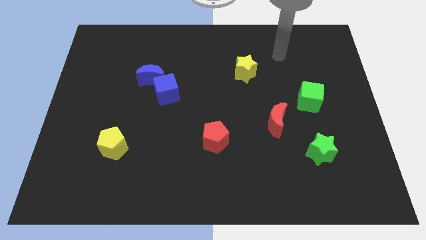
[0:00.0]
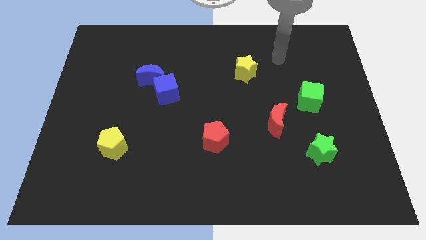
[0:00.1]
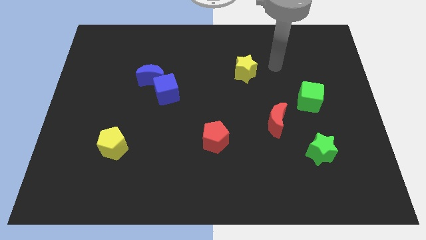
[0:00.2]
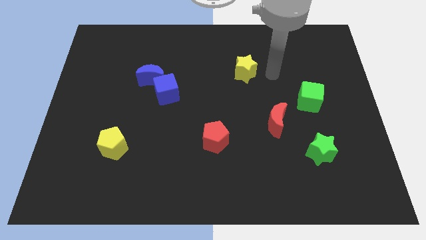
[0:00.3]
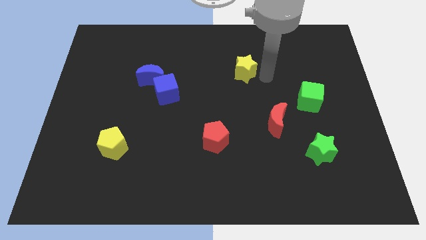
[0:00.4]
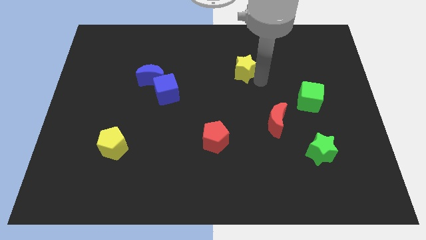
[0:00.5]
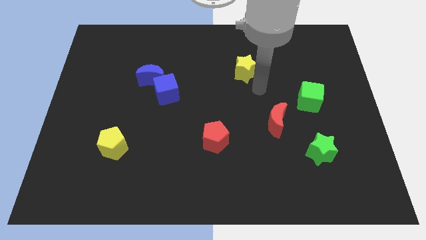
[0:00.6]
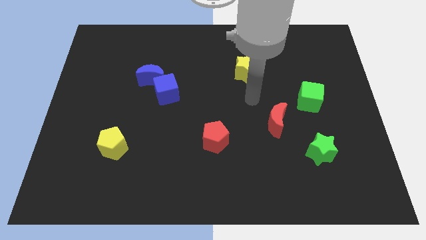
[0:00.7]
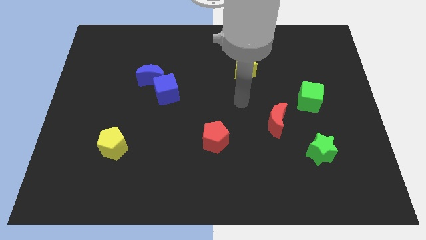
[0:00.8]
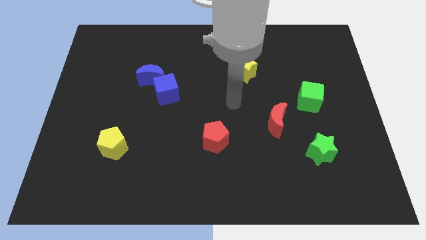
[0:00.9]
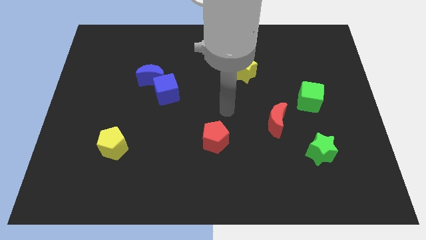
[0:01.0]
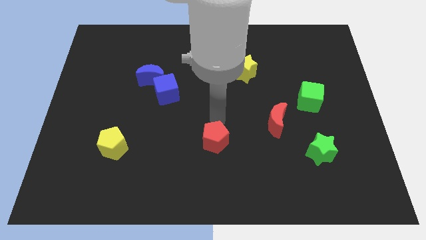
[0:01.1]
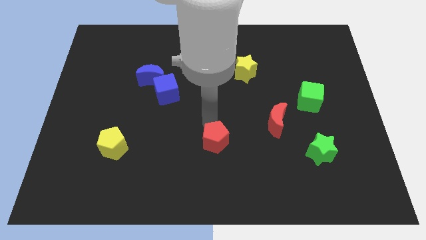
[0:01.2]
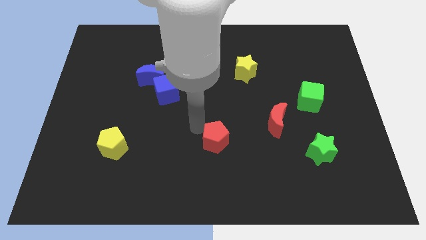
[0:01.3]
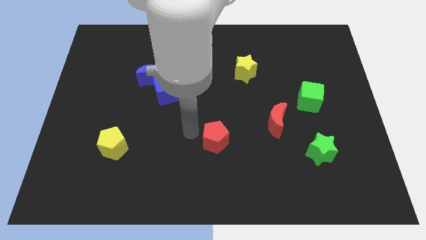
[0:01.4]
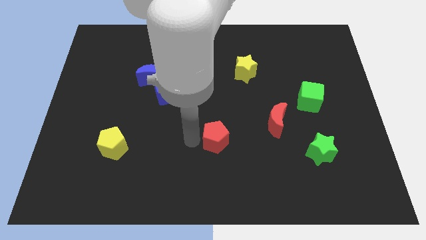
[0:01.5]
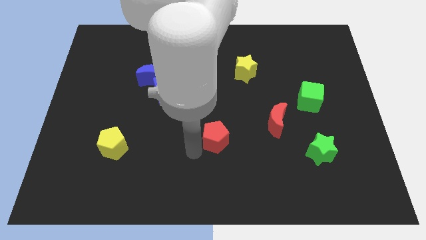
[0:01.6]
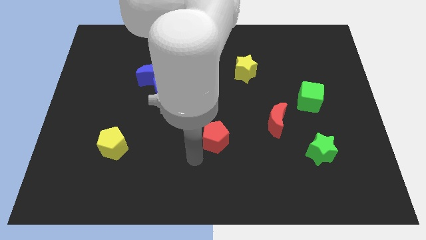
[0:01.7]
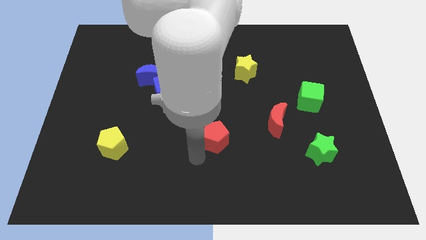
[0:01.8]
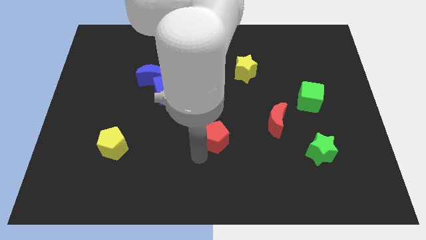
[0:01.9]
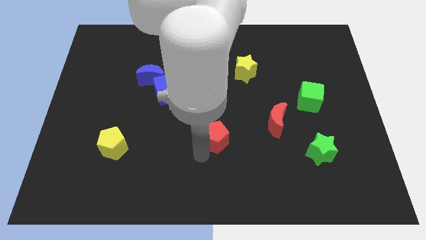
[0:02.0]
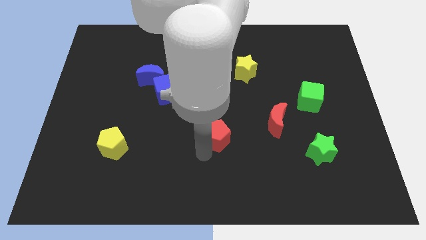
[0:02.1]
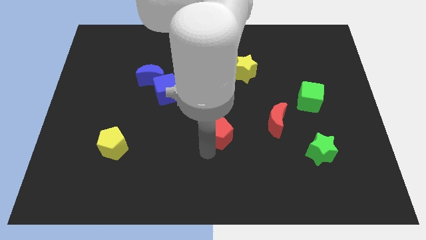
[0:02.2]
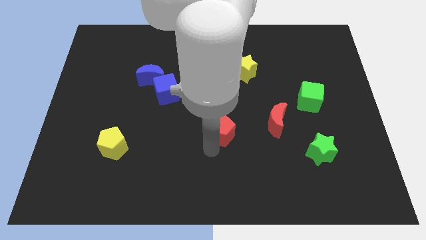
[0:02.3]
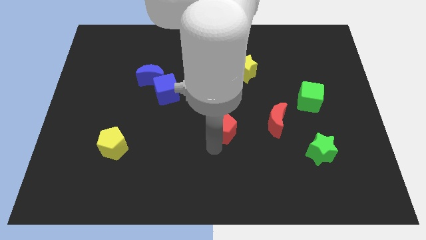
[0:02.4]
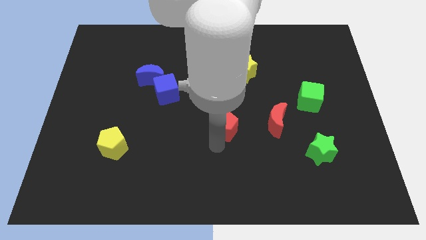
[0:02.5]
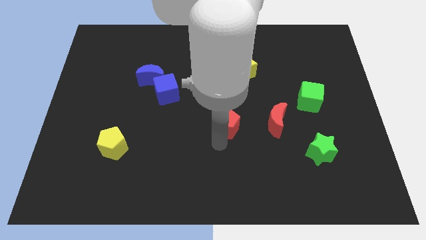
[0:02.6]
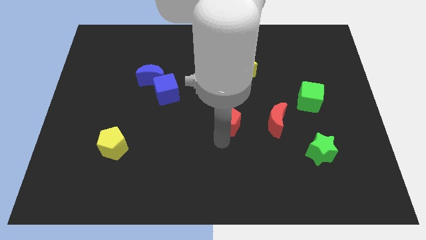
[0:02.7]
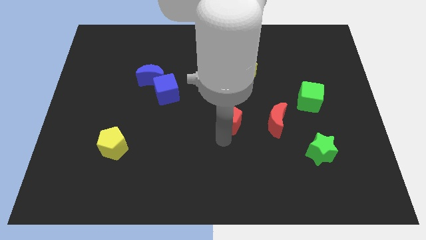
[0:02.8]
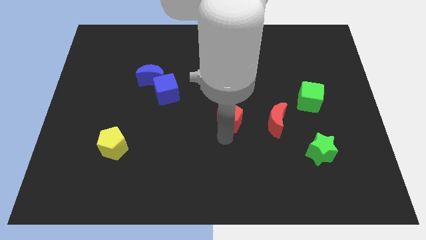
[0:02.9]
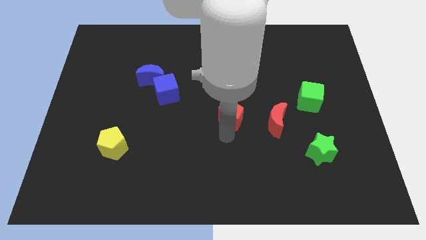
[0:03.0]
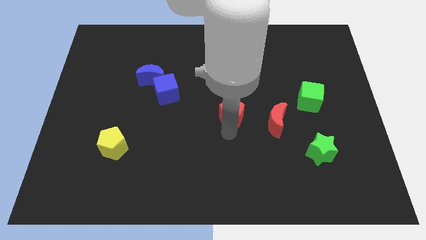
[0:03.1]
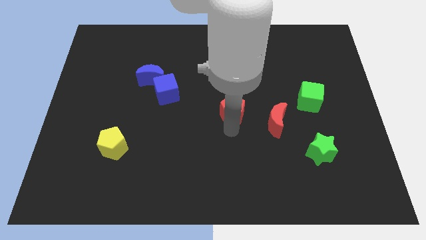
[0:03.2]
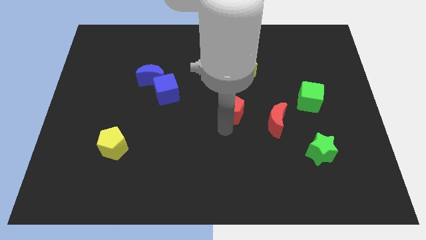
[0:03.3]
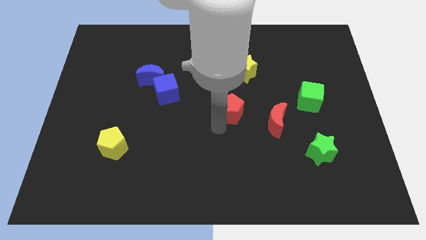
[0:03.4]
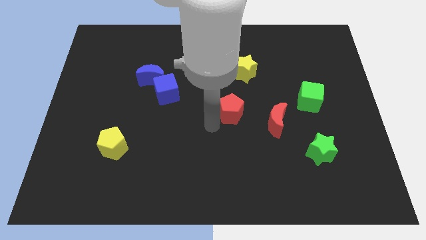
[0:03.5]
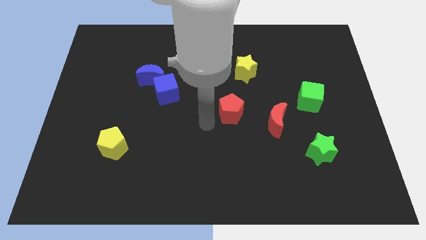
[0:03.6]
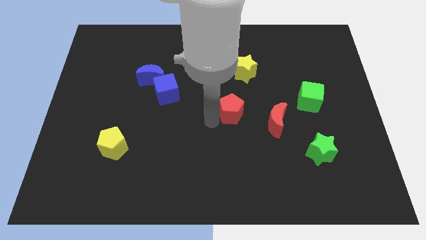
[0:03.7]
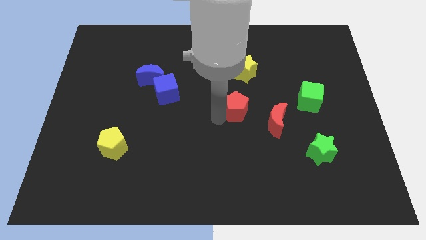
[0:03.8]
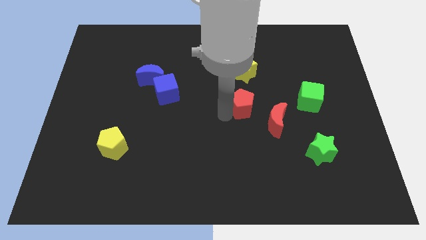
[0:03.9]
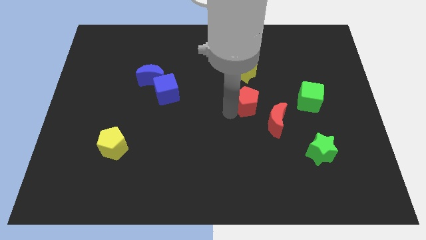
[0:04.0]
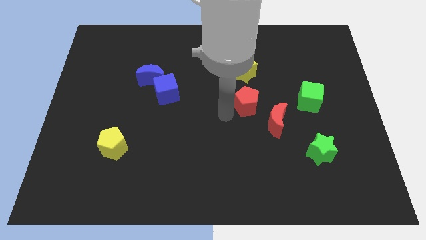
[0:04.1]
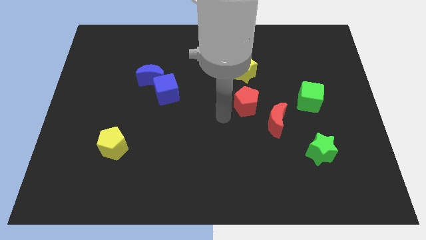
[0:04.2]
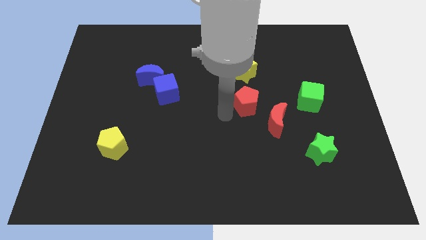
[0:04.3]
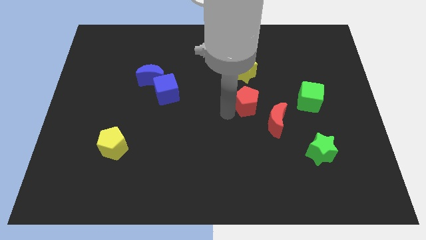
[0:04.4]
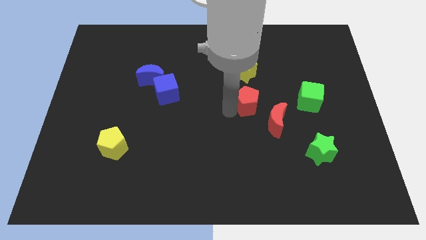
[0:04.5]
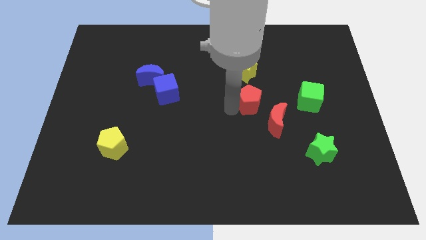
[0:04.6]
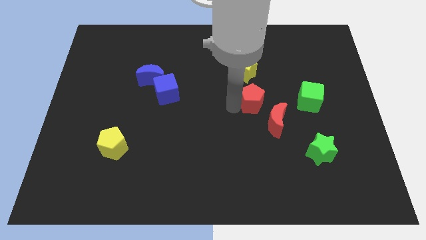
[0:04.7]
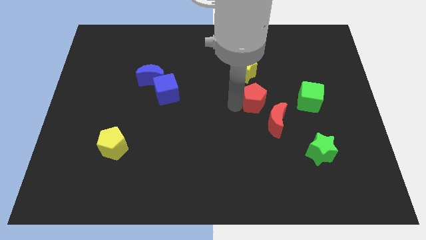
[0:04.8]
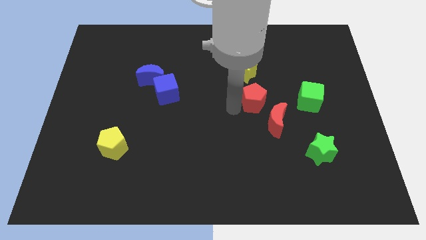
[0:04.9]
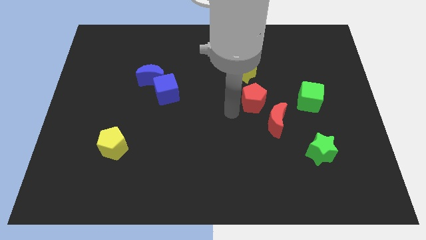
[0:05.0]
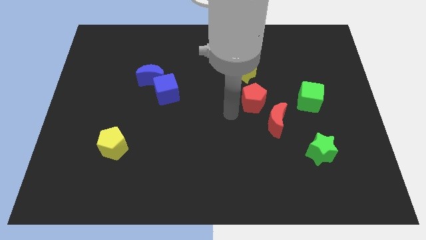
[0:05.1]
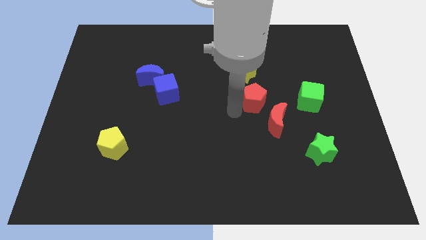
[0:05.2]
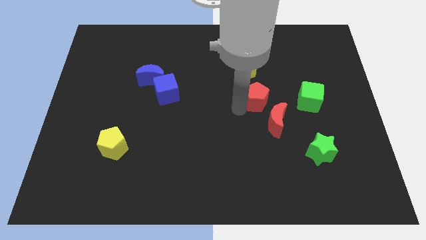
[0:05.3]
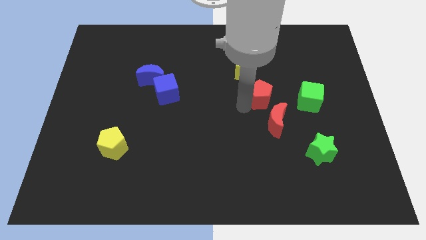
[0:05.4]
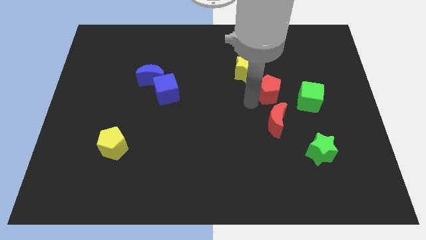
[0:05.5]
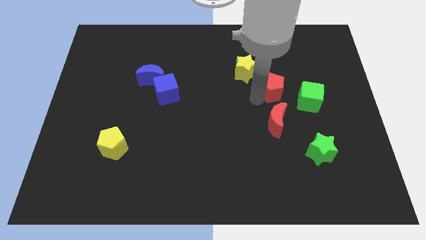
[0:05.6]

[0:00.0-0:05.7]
push the red pentagon to the top left side of the green cube

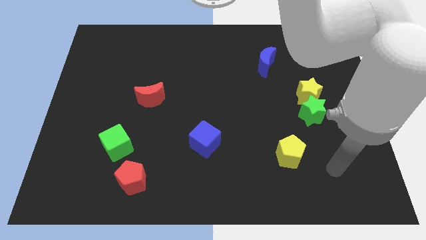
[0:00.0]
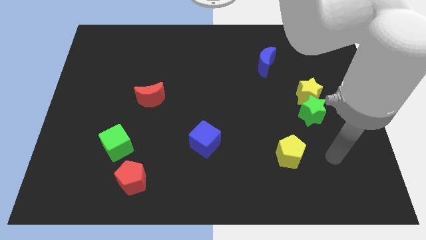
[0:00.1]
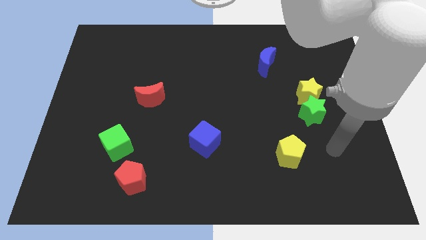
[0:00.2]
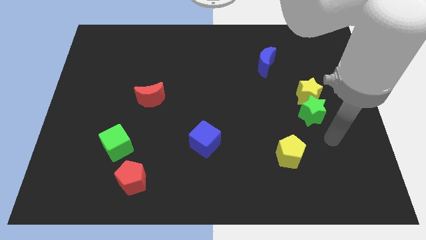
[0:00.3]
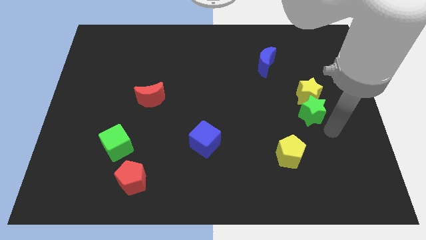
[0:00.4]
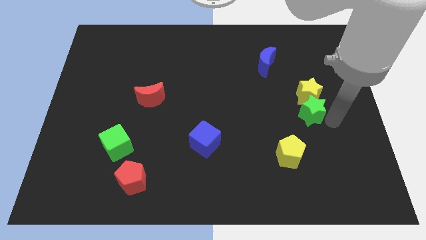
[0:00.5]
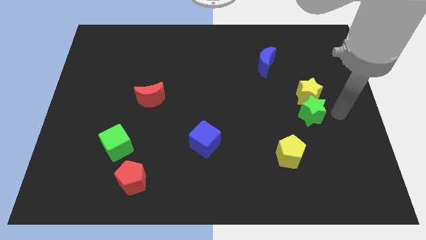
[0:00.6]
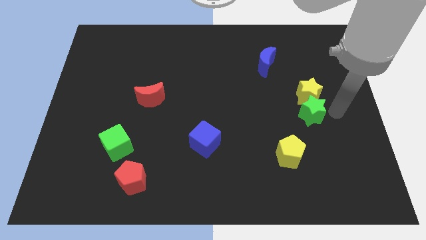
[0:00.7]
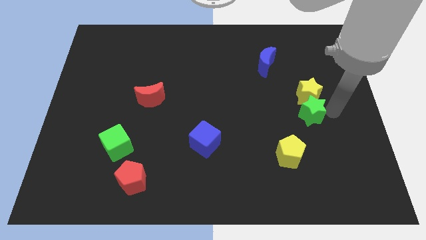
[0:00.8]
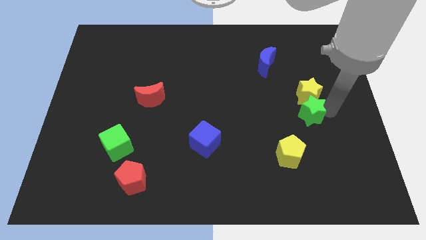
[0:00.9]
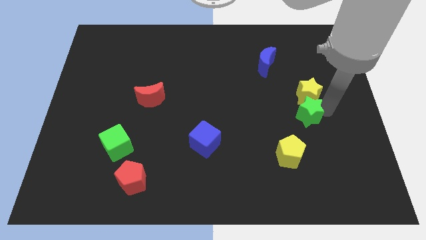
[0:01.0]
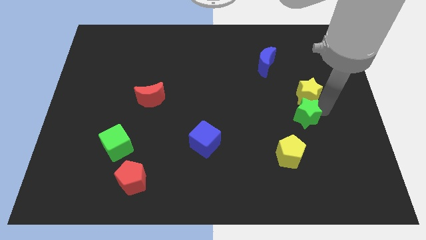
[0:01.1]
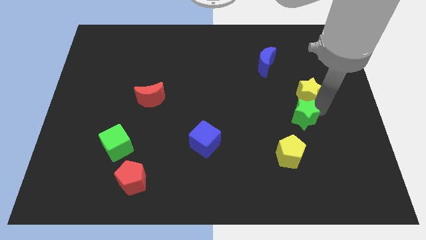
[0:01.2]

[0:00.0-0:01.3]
put the green star above the yellow pentagon
